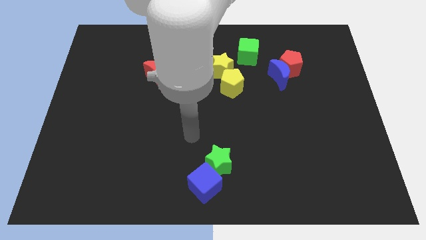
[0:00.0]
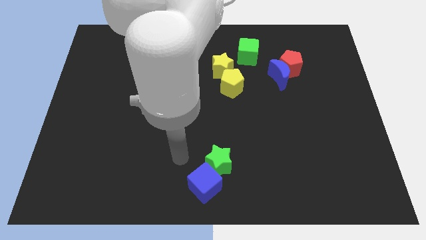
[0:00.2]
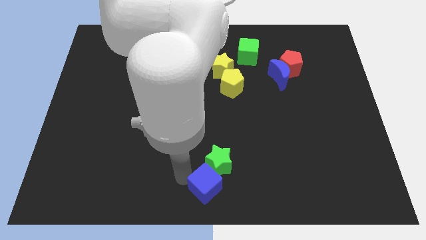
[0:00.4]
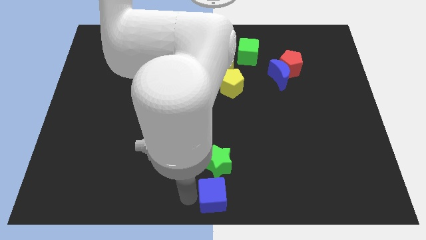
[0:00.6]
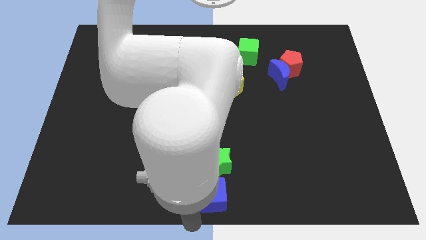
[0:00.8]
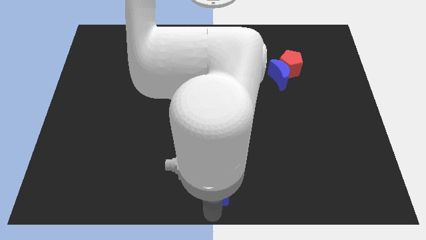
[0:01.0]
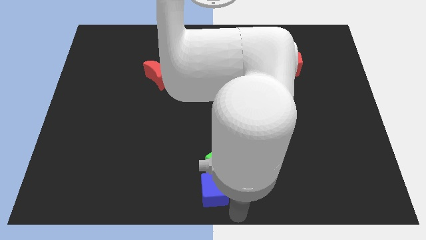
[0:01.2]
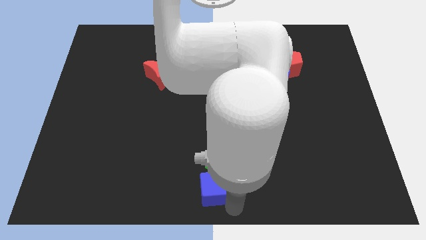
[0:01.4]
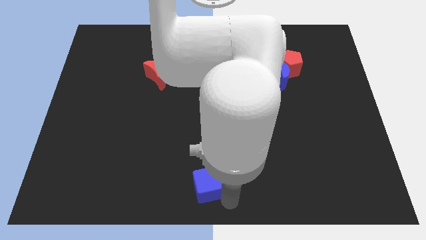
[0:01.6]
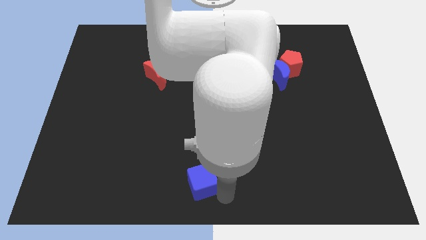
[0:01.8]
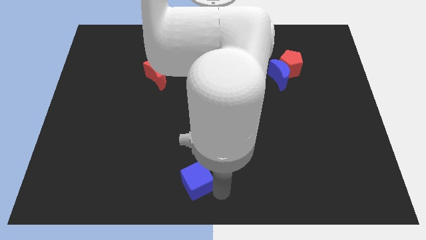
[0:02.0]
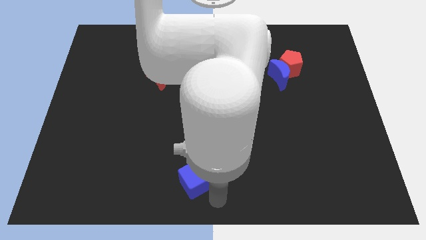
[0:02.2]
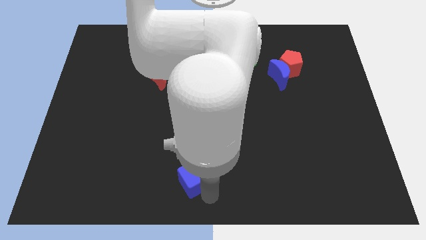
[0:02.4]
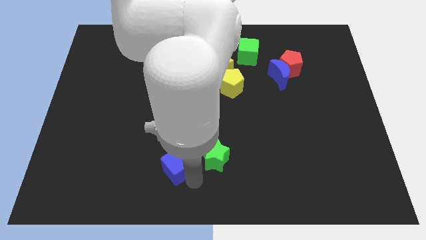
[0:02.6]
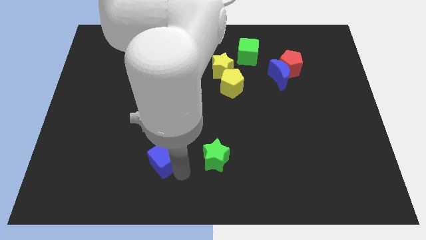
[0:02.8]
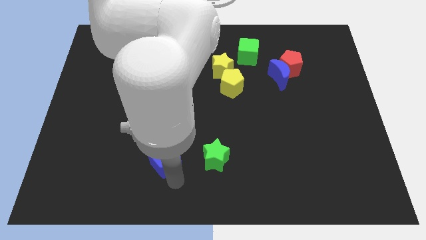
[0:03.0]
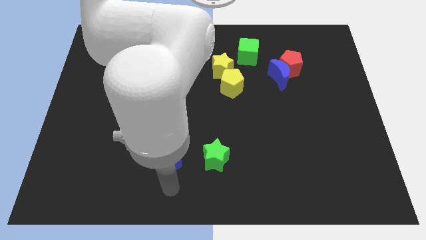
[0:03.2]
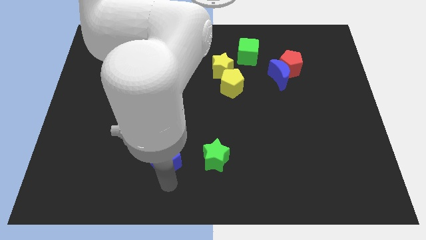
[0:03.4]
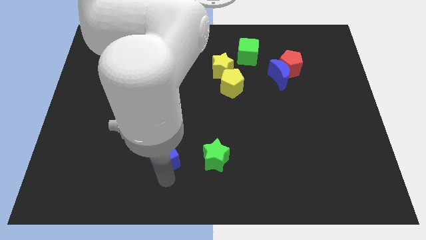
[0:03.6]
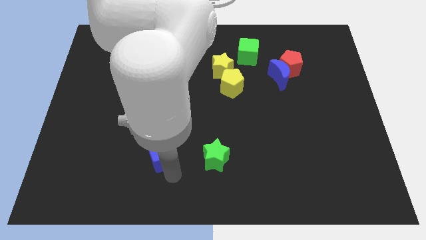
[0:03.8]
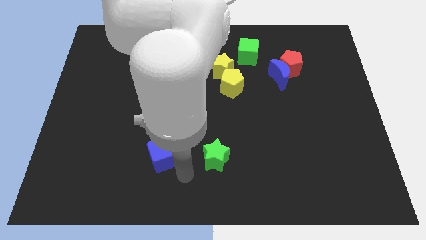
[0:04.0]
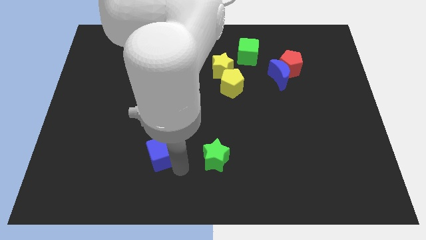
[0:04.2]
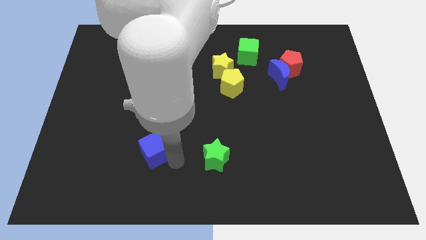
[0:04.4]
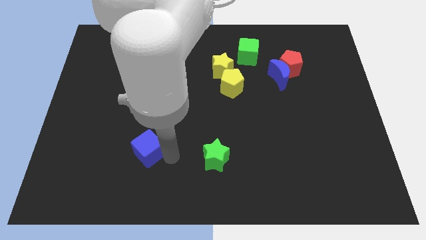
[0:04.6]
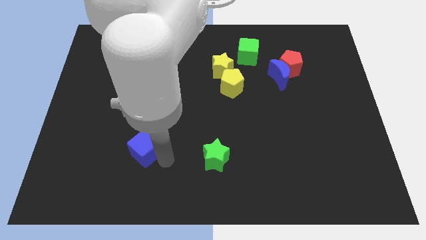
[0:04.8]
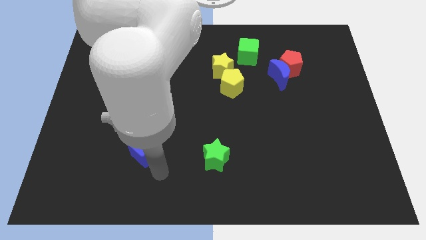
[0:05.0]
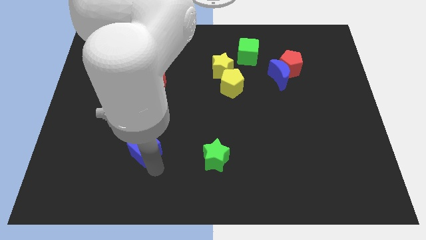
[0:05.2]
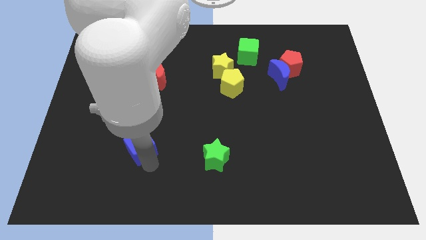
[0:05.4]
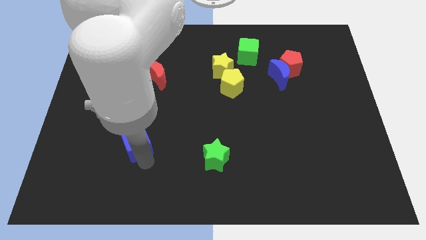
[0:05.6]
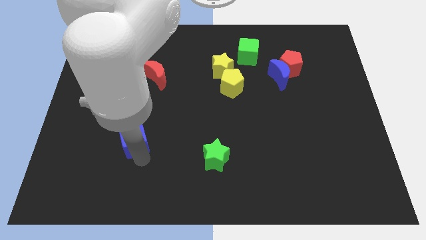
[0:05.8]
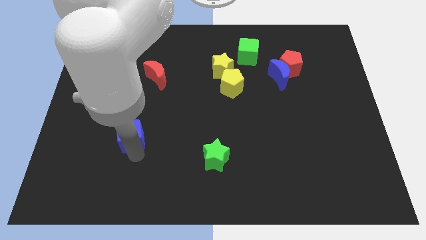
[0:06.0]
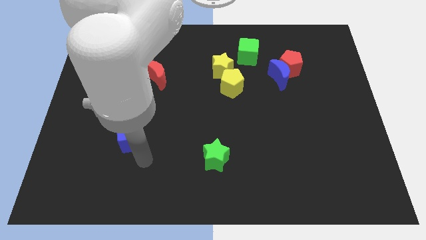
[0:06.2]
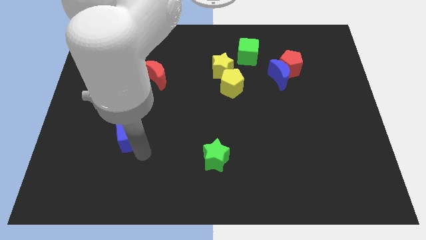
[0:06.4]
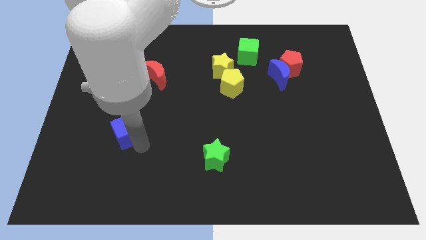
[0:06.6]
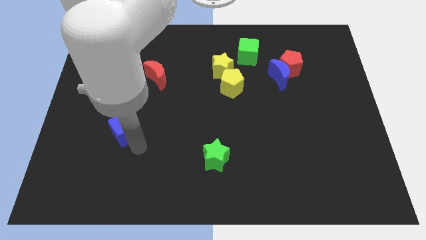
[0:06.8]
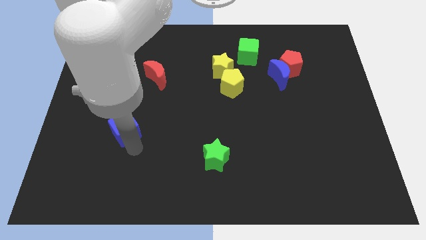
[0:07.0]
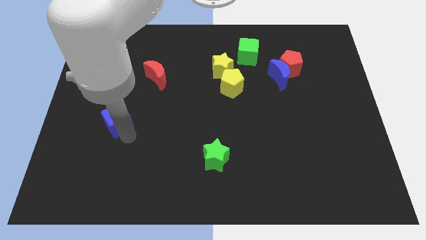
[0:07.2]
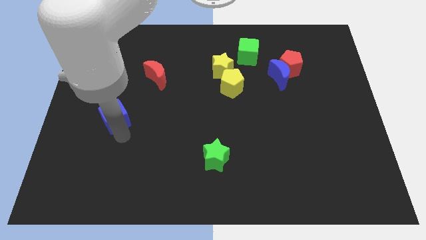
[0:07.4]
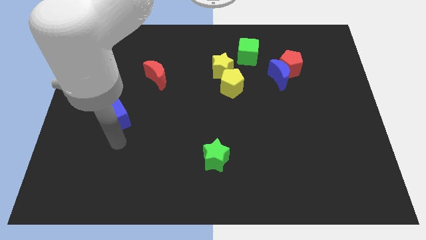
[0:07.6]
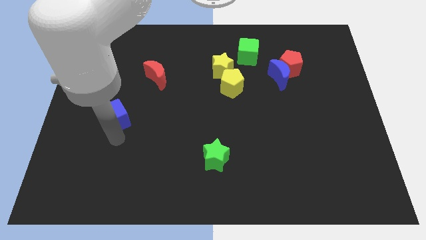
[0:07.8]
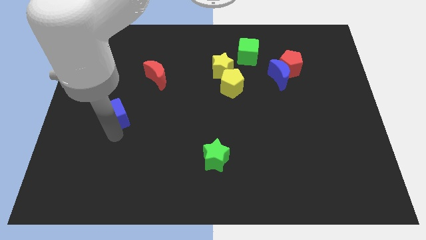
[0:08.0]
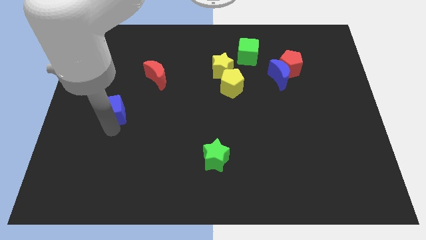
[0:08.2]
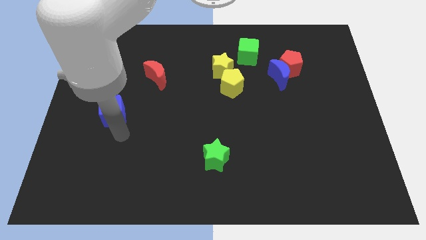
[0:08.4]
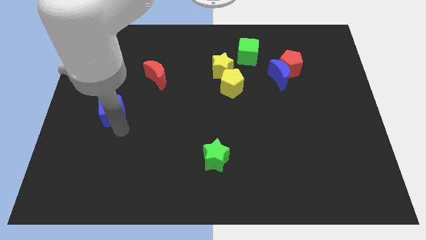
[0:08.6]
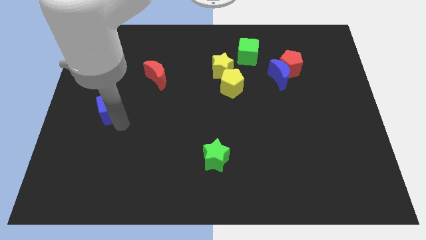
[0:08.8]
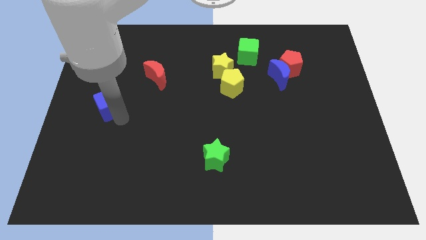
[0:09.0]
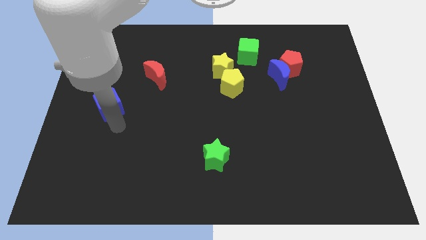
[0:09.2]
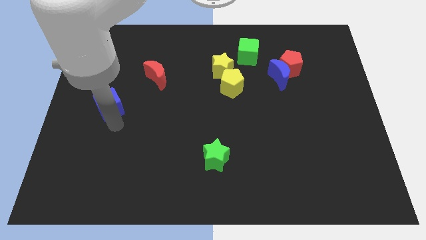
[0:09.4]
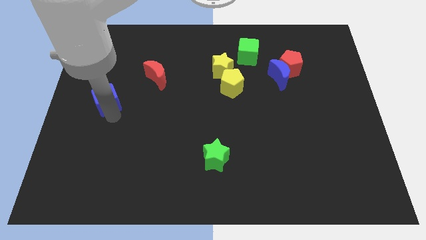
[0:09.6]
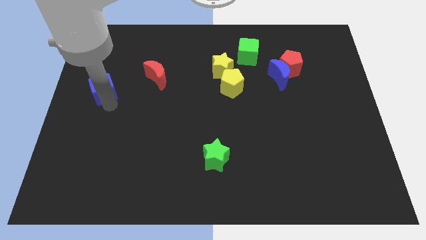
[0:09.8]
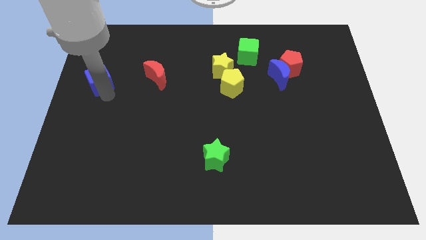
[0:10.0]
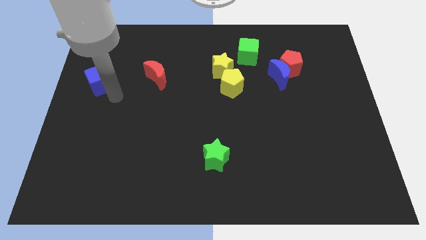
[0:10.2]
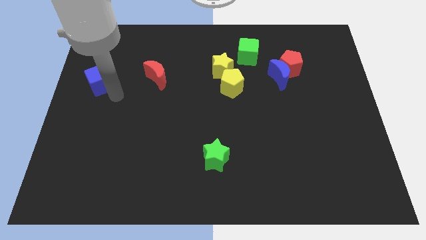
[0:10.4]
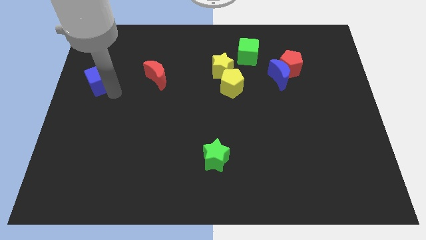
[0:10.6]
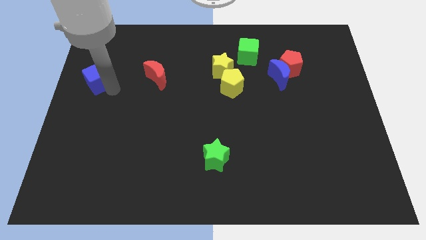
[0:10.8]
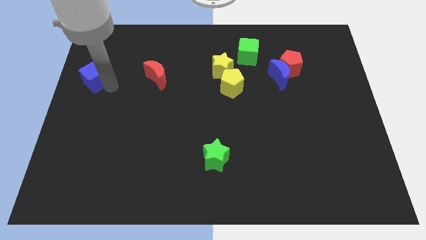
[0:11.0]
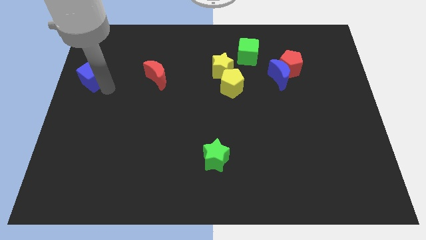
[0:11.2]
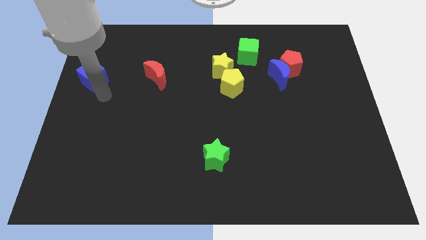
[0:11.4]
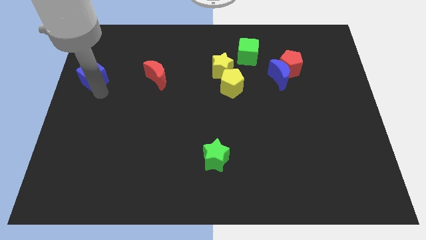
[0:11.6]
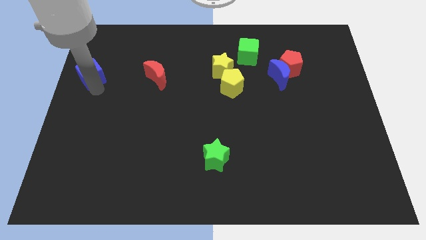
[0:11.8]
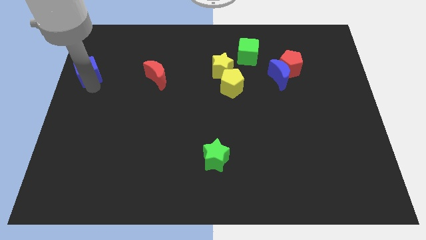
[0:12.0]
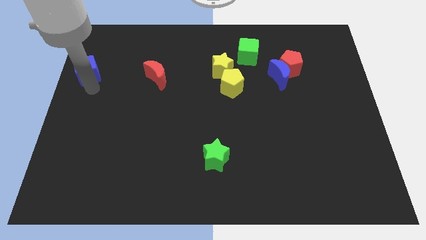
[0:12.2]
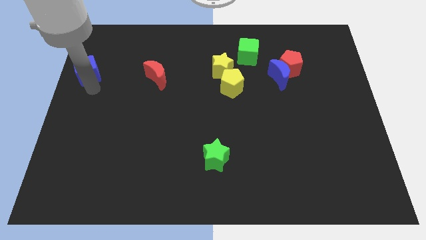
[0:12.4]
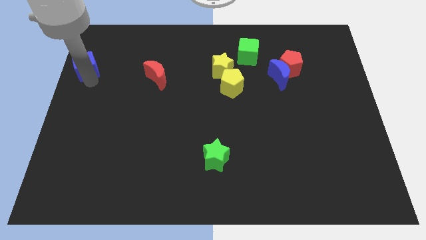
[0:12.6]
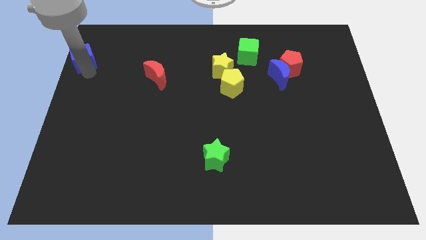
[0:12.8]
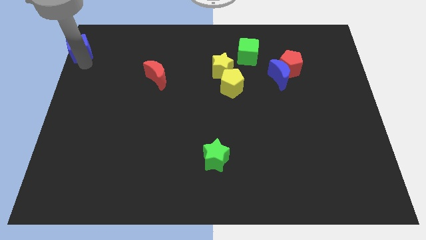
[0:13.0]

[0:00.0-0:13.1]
move the blue cube to the upper left corner
